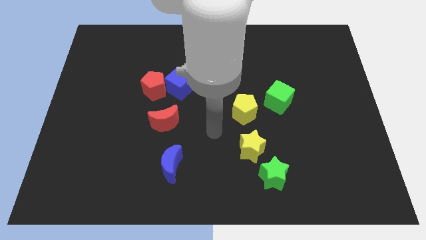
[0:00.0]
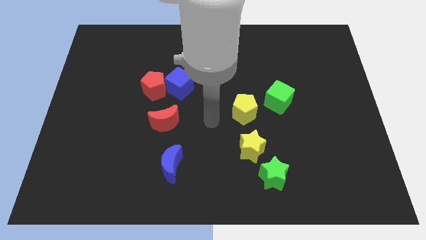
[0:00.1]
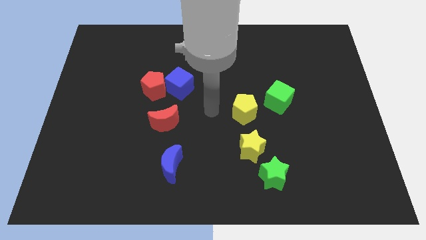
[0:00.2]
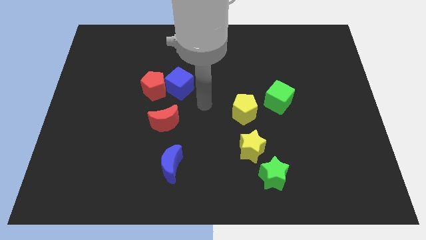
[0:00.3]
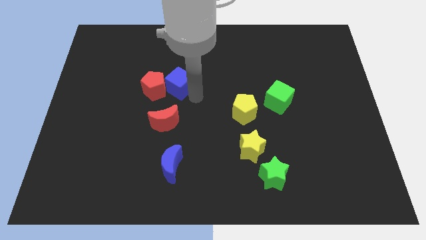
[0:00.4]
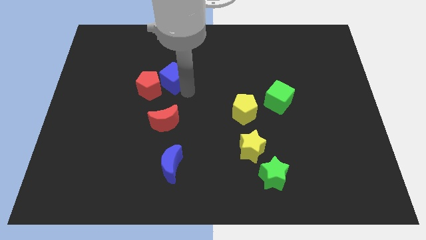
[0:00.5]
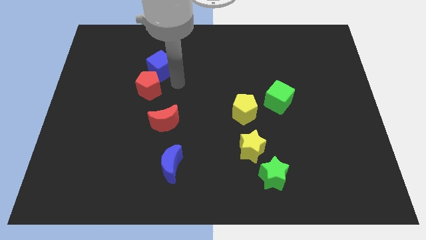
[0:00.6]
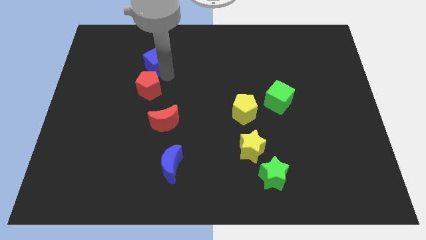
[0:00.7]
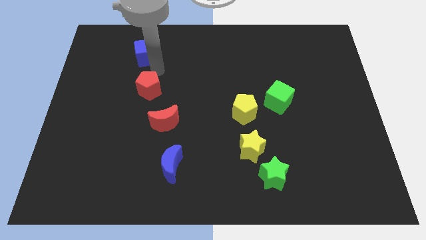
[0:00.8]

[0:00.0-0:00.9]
separate the red pentagon from the blue cube

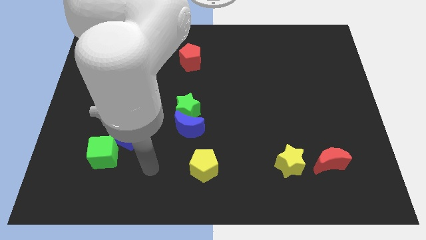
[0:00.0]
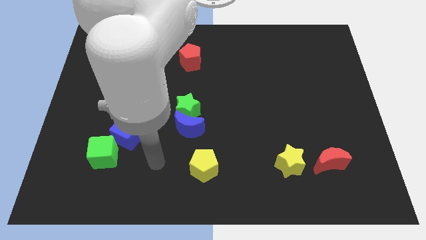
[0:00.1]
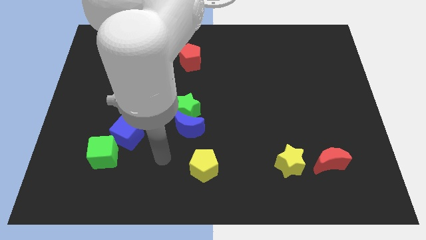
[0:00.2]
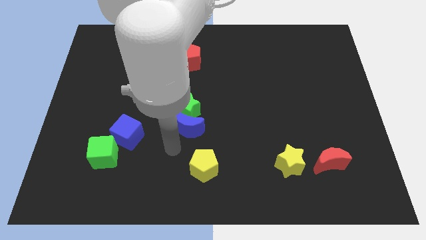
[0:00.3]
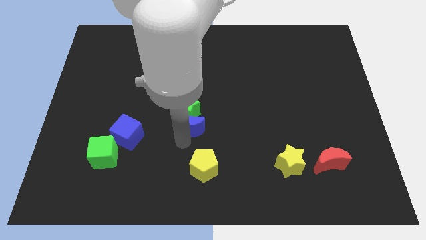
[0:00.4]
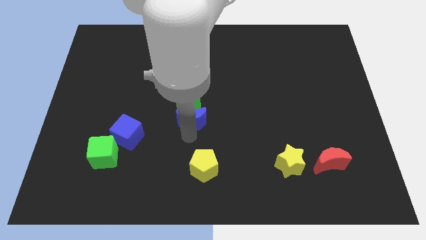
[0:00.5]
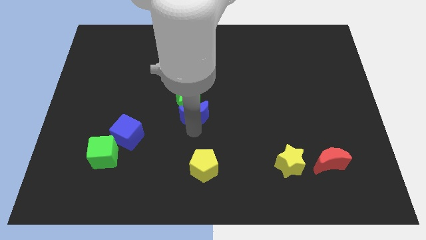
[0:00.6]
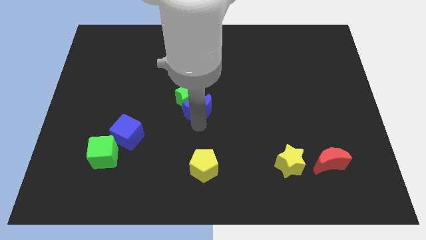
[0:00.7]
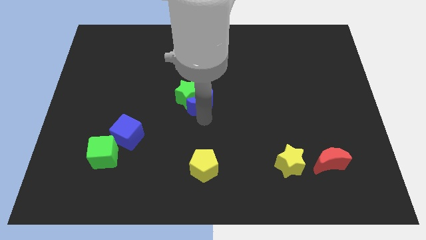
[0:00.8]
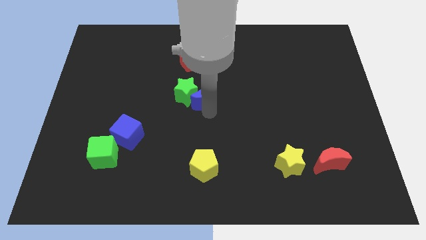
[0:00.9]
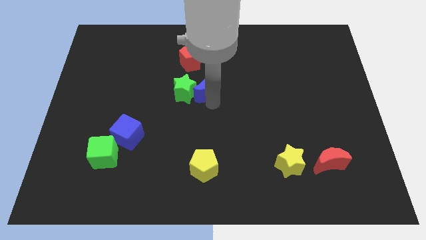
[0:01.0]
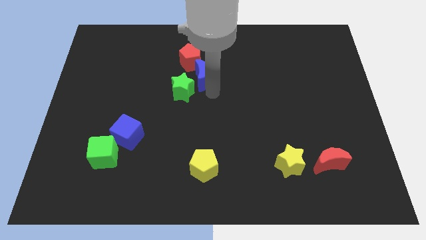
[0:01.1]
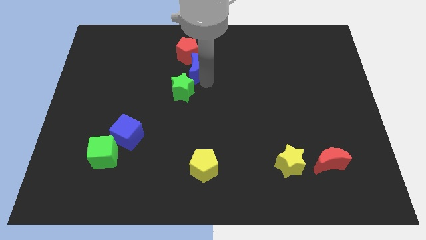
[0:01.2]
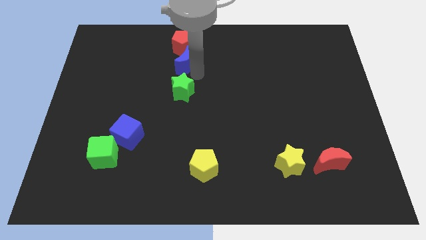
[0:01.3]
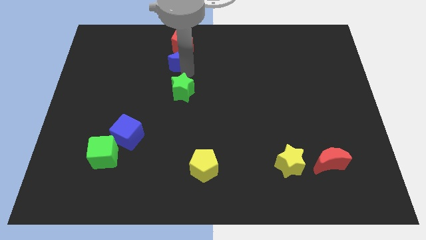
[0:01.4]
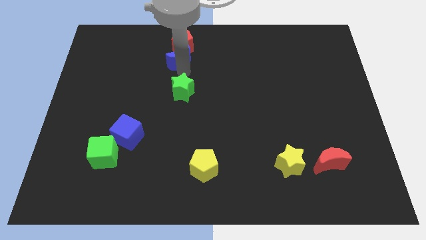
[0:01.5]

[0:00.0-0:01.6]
move the green star away from the blue moon

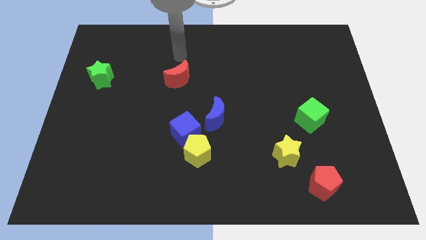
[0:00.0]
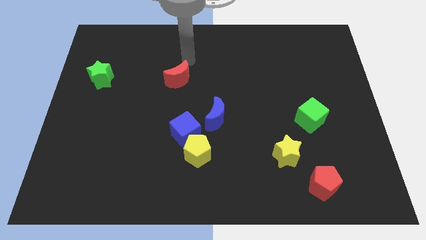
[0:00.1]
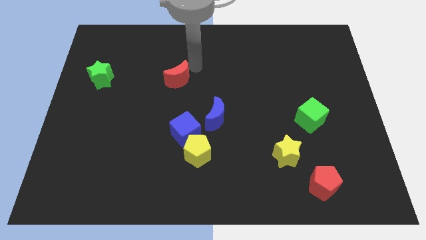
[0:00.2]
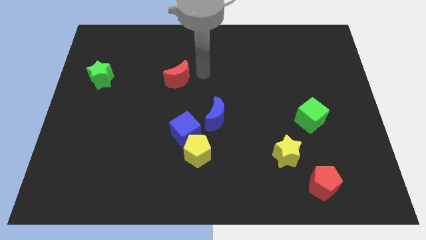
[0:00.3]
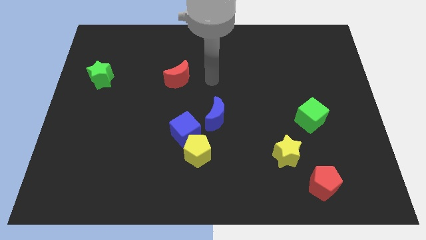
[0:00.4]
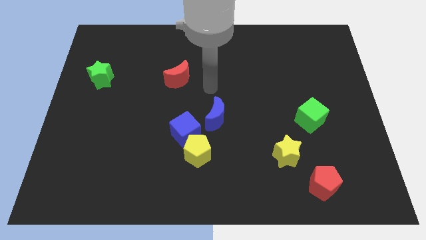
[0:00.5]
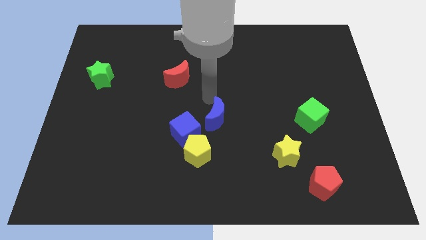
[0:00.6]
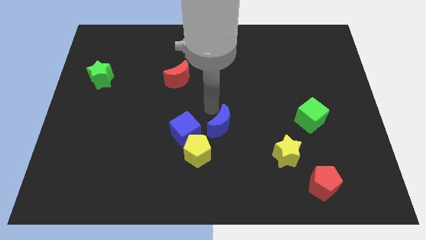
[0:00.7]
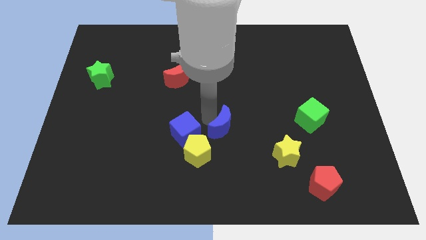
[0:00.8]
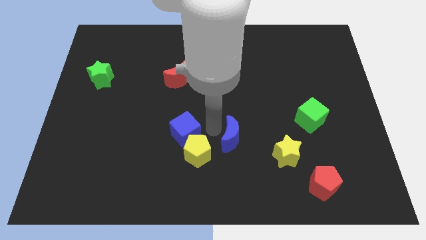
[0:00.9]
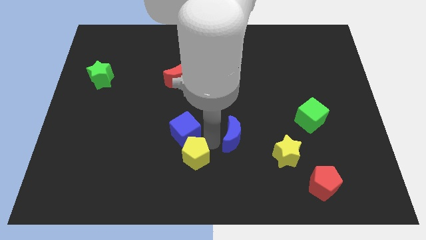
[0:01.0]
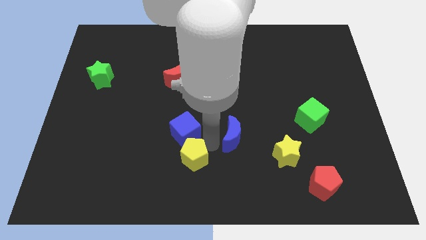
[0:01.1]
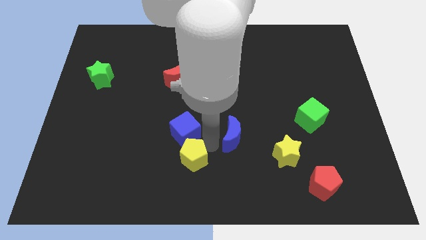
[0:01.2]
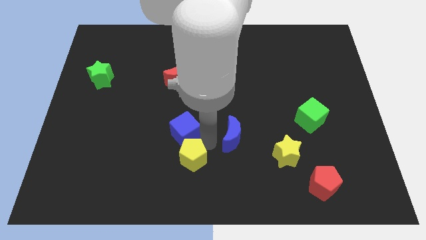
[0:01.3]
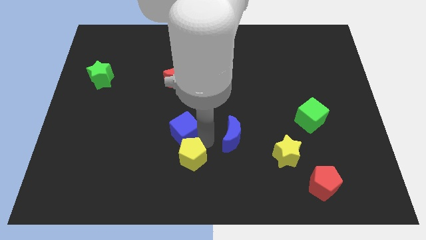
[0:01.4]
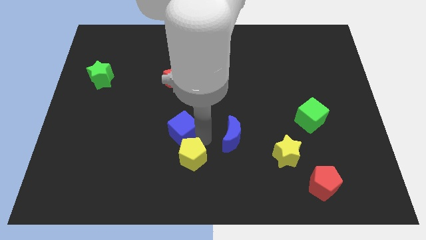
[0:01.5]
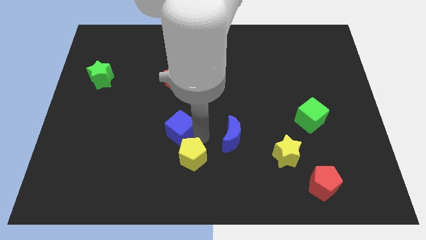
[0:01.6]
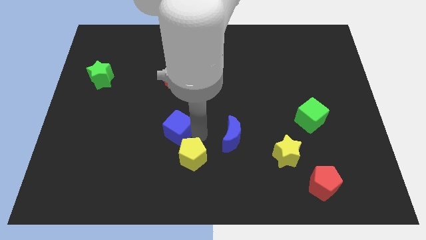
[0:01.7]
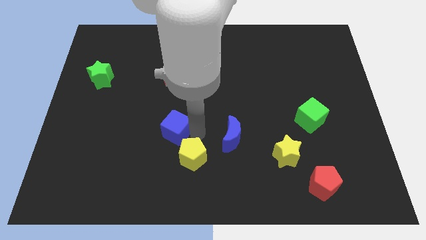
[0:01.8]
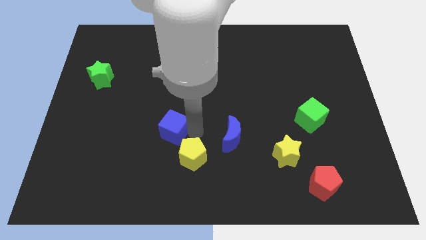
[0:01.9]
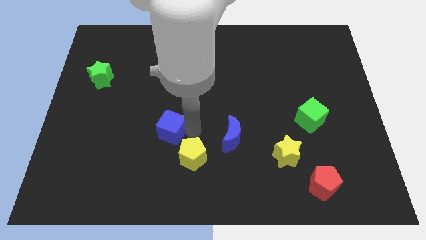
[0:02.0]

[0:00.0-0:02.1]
separate the blue cube from the yellow pentagon and blue moon

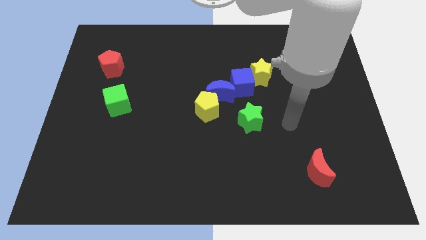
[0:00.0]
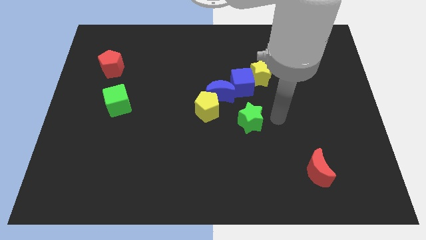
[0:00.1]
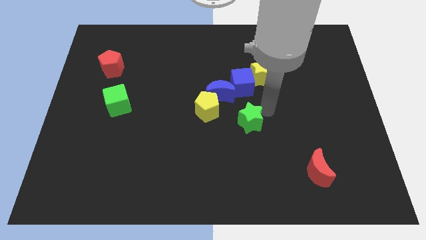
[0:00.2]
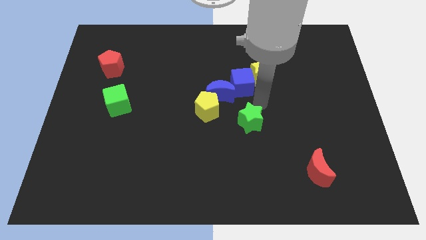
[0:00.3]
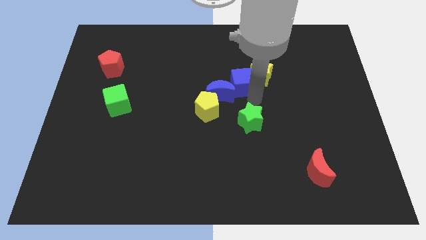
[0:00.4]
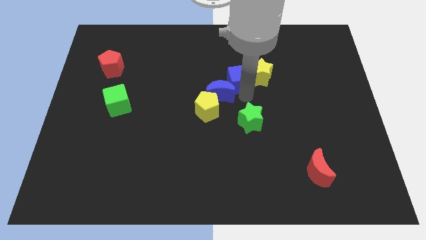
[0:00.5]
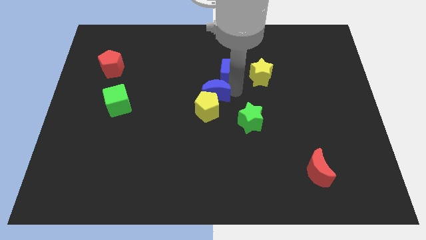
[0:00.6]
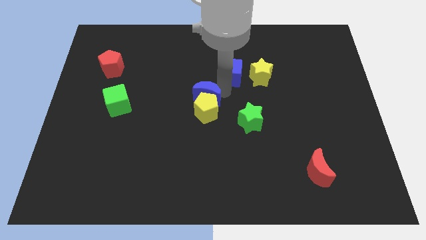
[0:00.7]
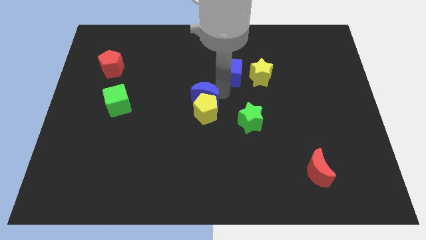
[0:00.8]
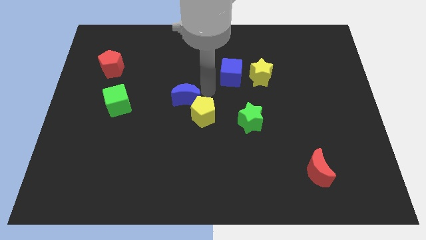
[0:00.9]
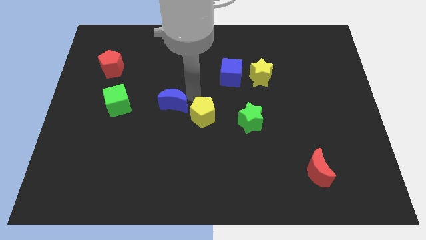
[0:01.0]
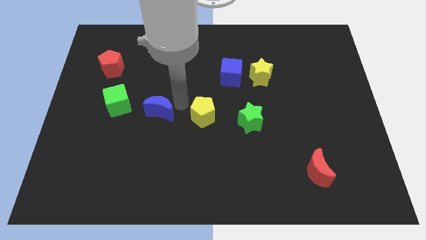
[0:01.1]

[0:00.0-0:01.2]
pull the yellow pentagon apart from the blue moon

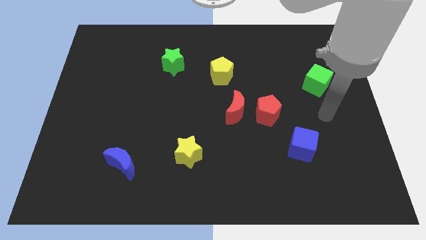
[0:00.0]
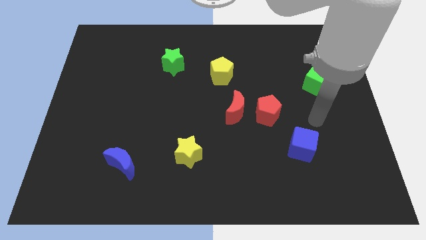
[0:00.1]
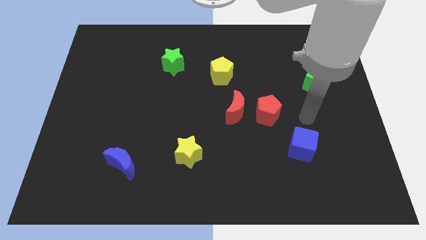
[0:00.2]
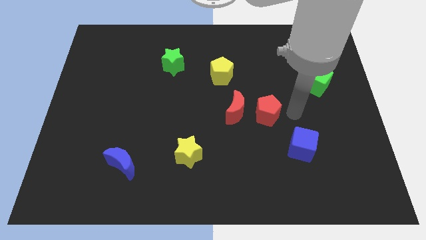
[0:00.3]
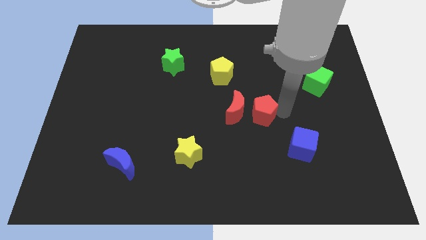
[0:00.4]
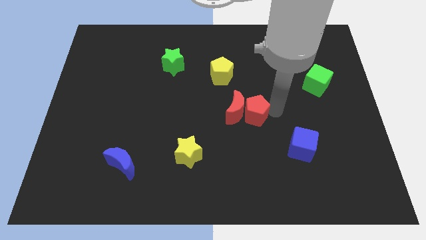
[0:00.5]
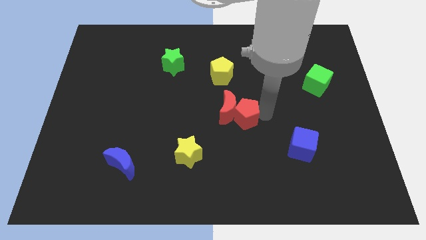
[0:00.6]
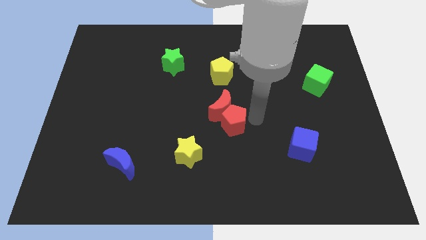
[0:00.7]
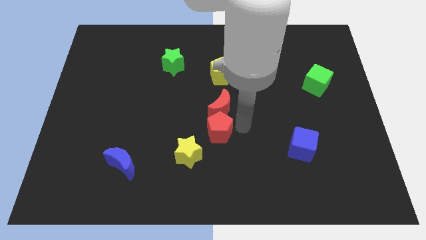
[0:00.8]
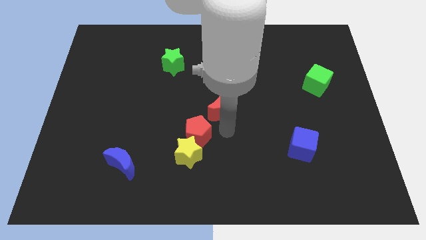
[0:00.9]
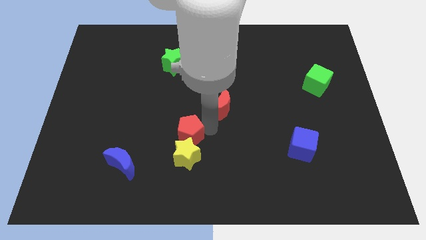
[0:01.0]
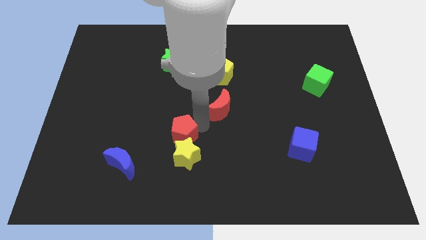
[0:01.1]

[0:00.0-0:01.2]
separate the red moon from the red pentagon

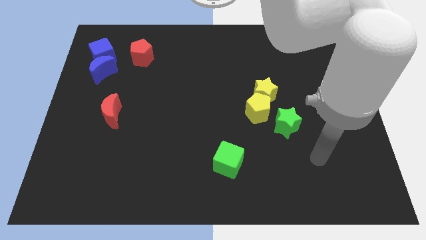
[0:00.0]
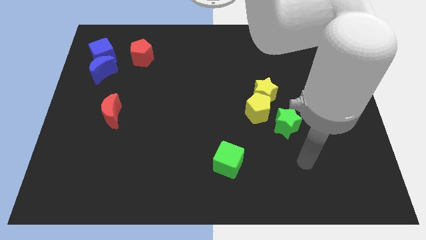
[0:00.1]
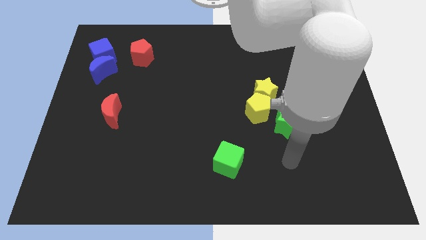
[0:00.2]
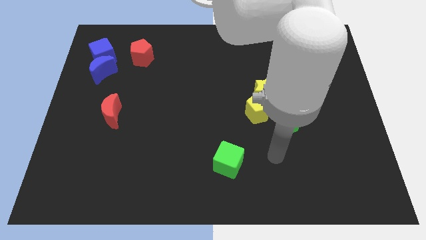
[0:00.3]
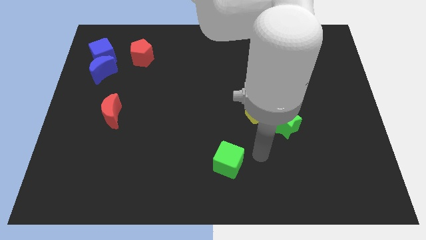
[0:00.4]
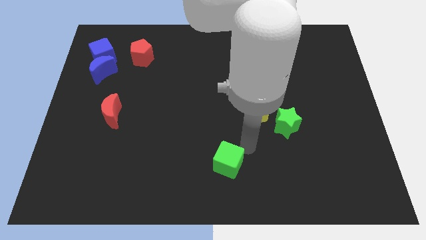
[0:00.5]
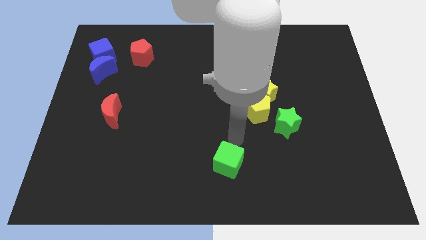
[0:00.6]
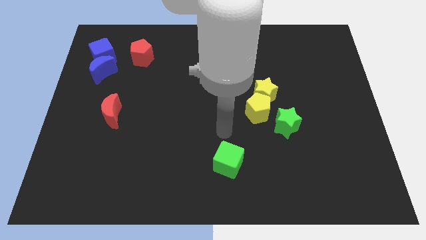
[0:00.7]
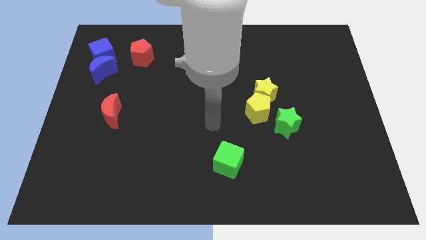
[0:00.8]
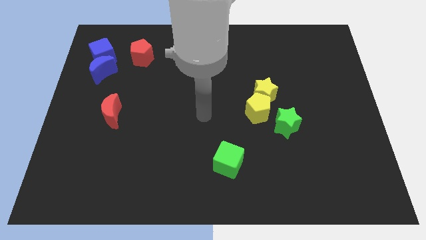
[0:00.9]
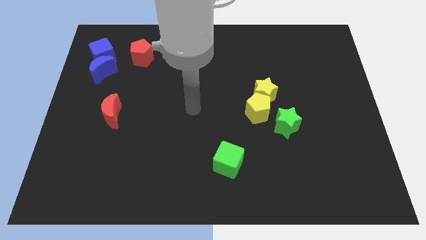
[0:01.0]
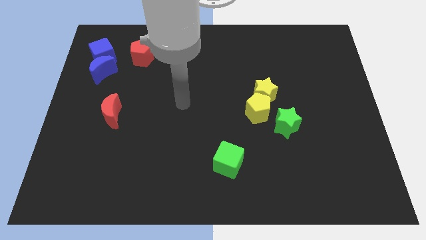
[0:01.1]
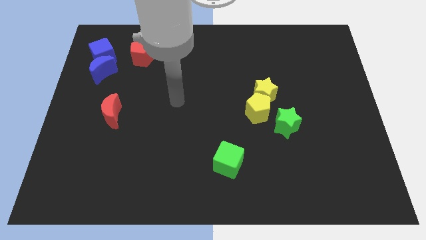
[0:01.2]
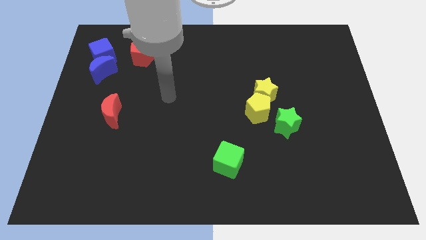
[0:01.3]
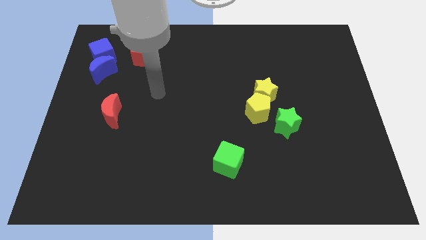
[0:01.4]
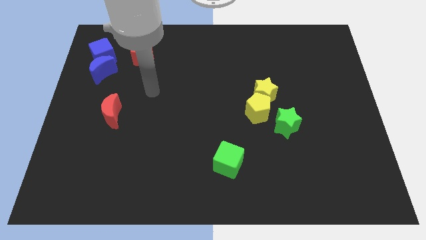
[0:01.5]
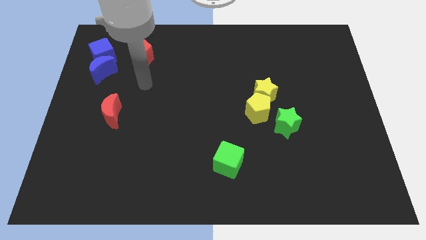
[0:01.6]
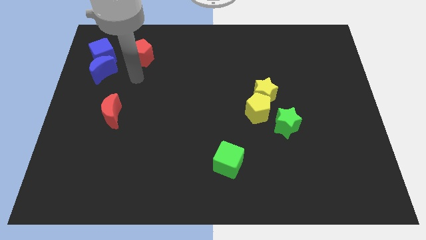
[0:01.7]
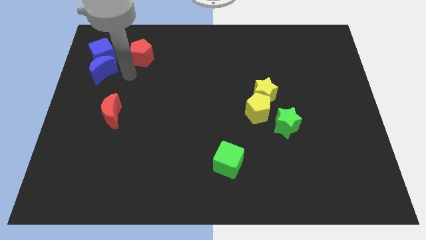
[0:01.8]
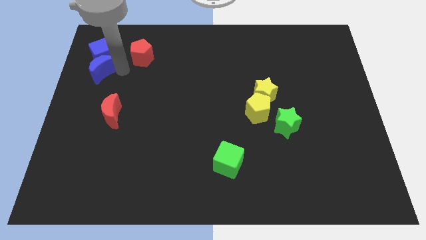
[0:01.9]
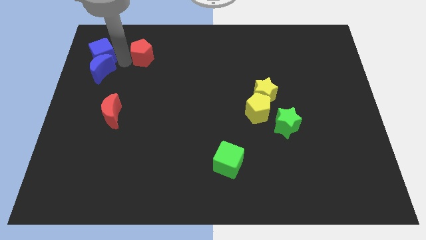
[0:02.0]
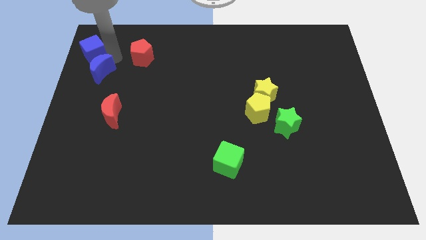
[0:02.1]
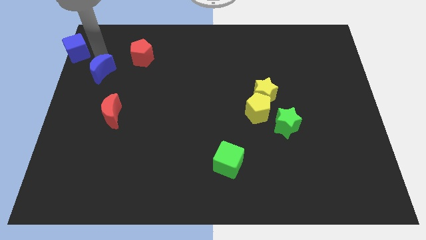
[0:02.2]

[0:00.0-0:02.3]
pull the blue moon apart from the blue cube
